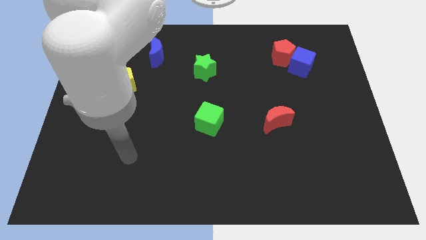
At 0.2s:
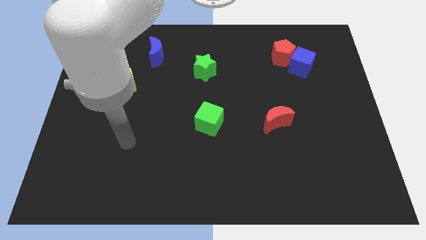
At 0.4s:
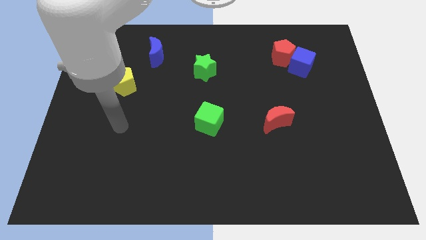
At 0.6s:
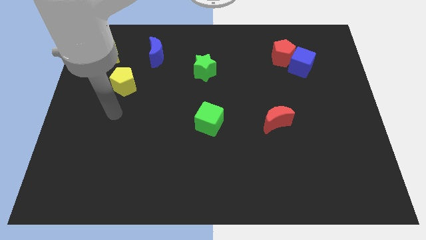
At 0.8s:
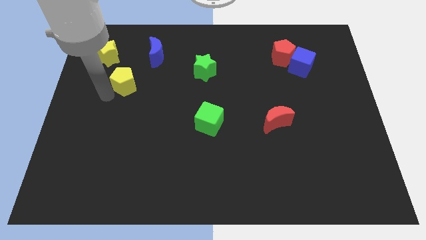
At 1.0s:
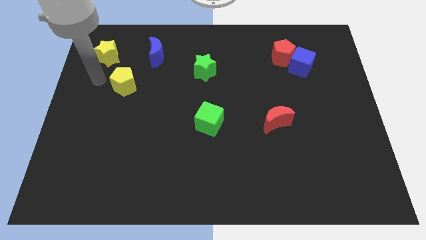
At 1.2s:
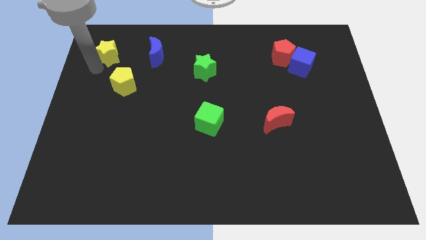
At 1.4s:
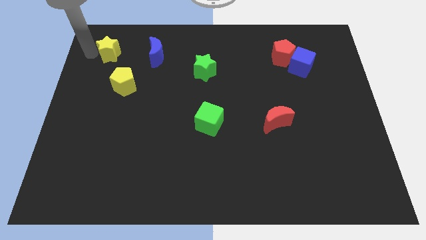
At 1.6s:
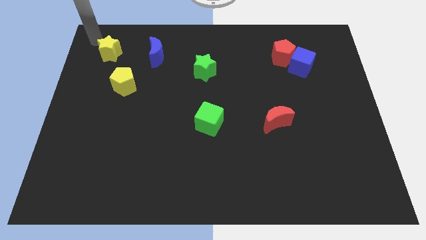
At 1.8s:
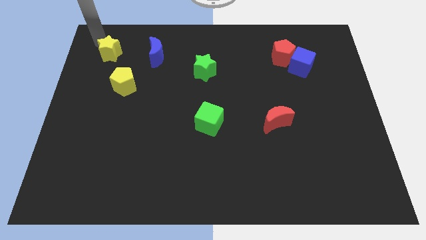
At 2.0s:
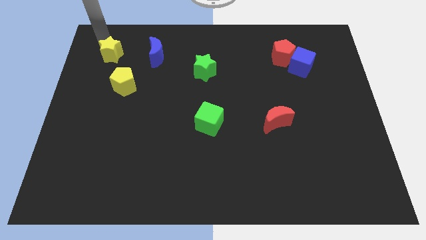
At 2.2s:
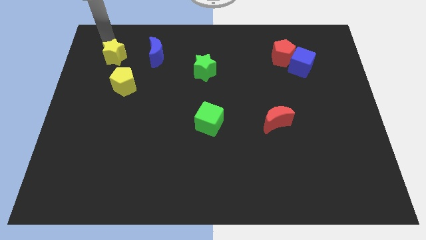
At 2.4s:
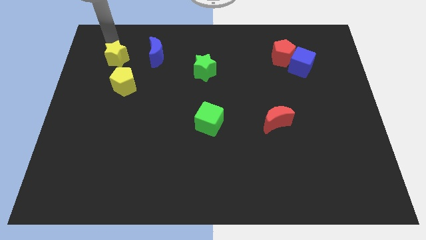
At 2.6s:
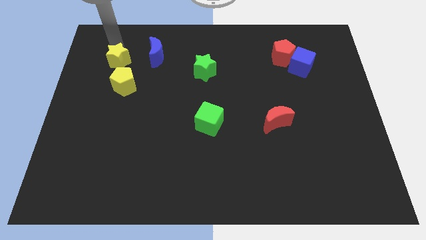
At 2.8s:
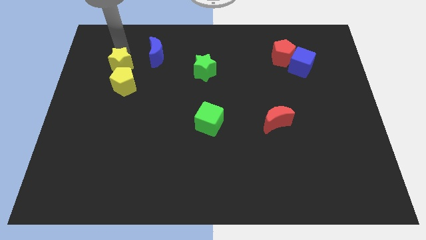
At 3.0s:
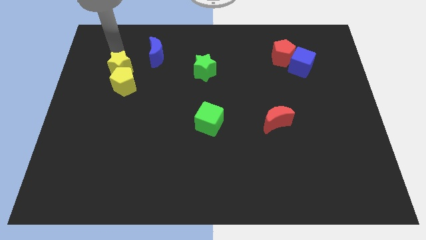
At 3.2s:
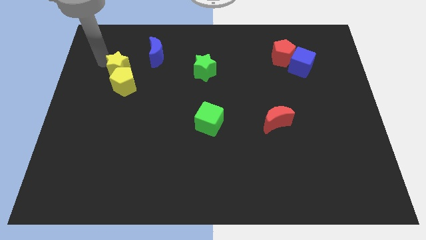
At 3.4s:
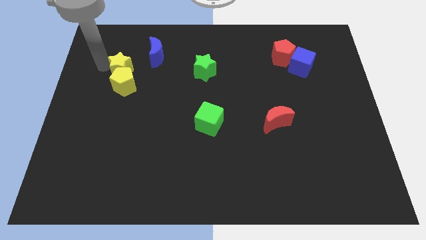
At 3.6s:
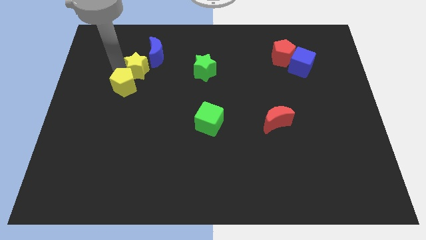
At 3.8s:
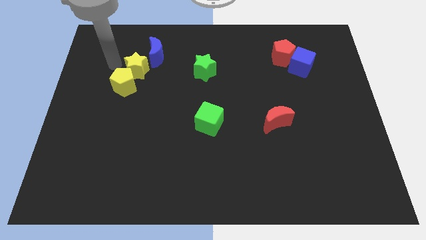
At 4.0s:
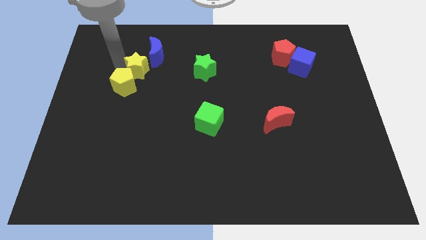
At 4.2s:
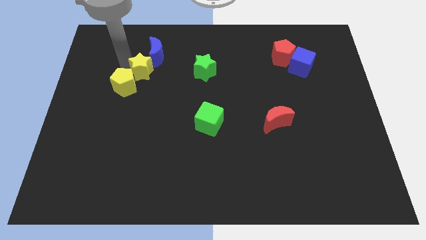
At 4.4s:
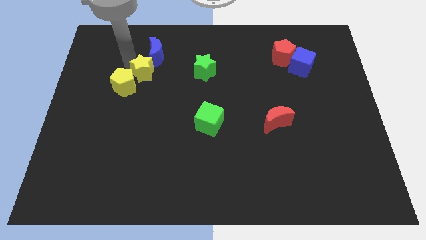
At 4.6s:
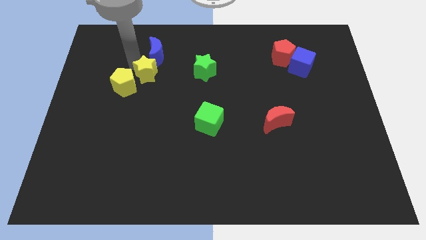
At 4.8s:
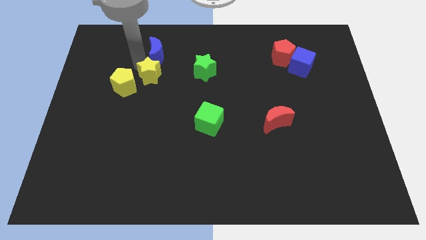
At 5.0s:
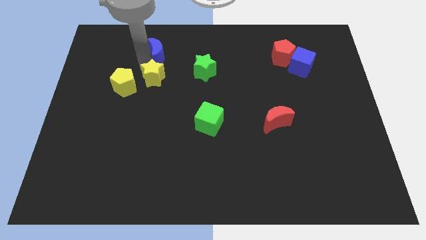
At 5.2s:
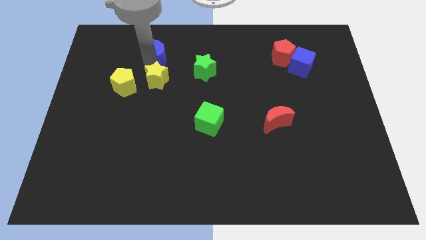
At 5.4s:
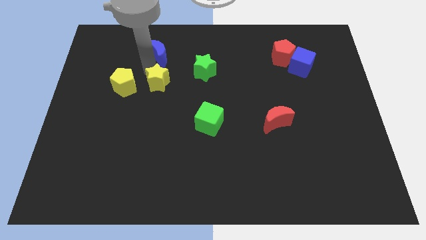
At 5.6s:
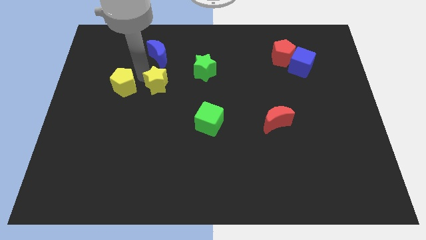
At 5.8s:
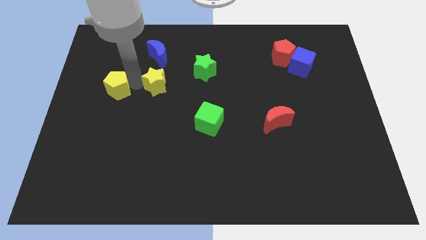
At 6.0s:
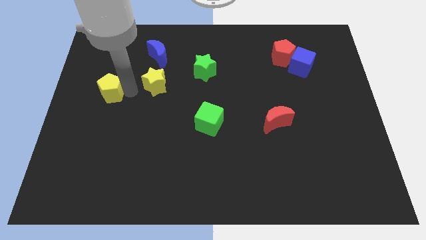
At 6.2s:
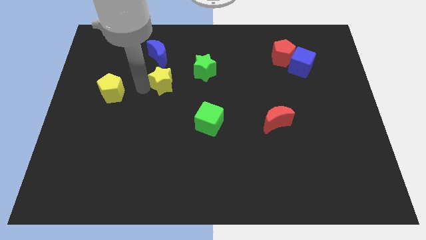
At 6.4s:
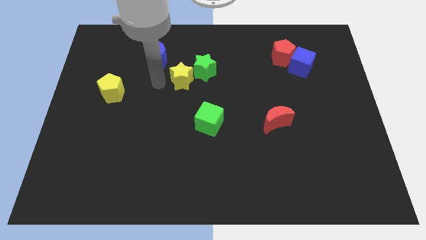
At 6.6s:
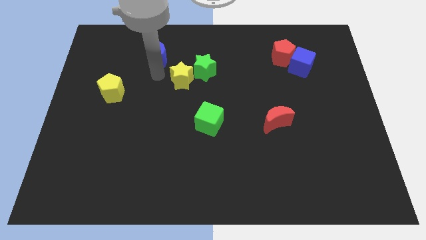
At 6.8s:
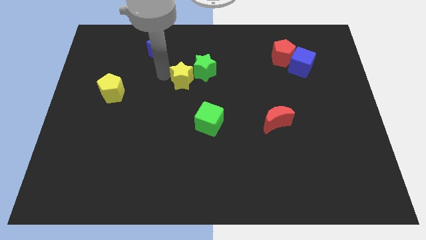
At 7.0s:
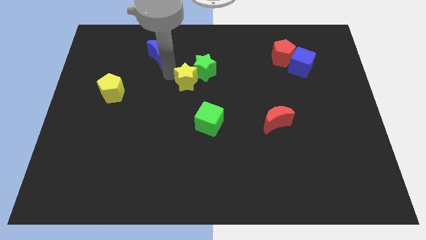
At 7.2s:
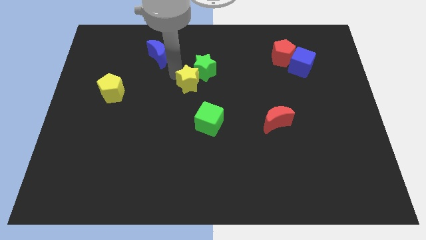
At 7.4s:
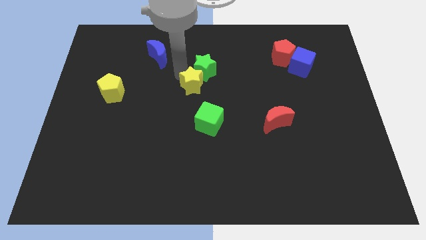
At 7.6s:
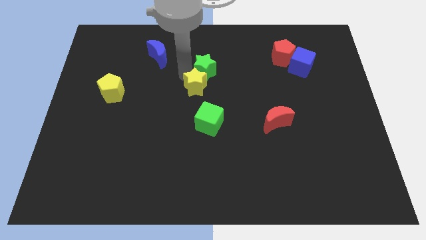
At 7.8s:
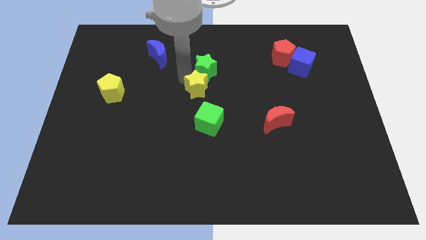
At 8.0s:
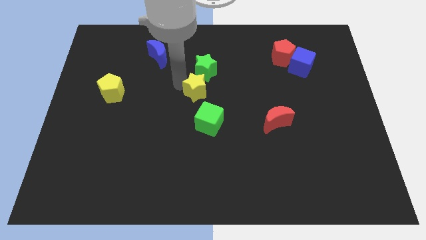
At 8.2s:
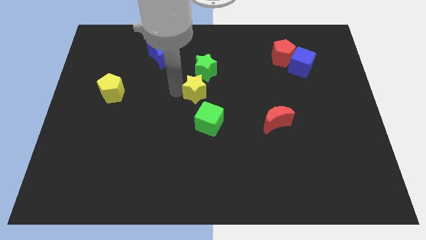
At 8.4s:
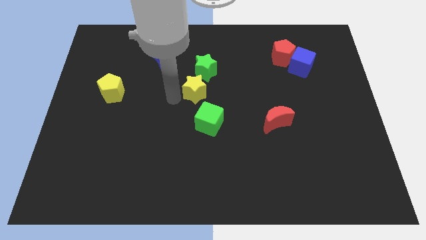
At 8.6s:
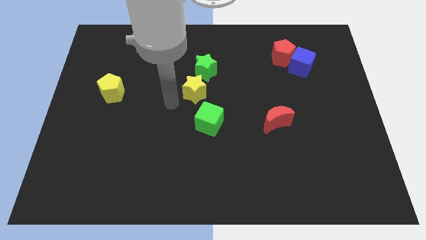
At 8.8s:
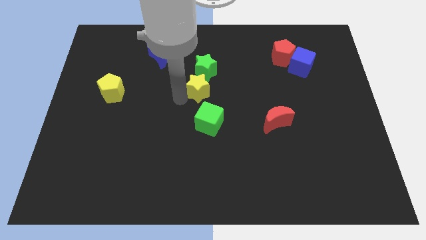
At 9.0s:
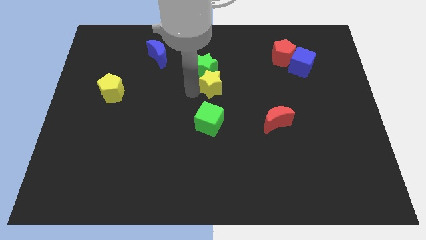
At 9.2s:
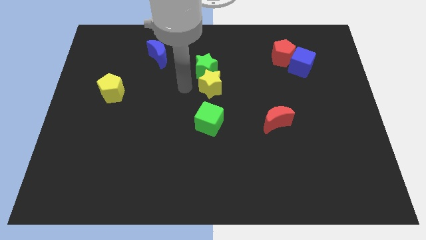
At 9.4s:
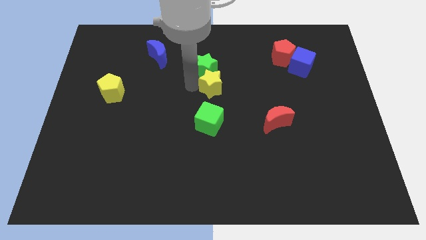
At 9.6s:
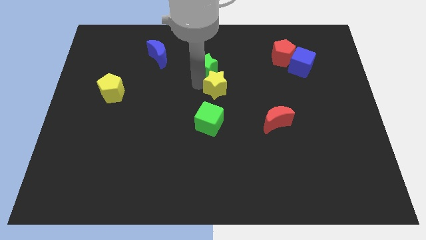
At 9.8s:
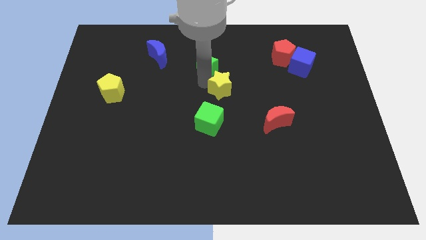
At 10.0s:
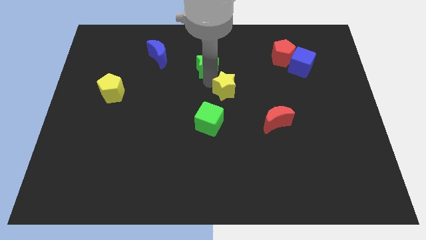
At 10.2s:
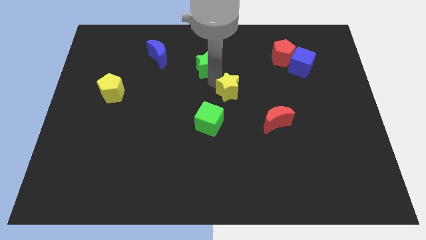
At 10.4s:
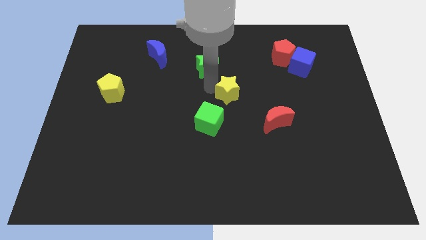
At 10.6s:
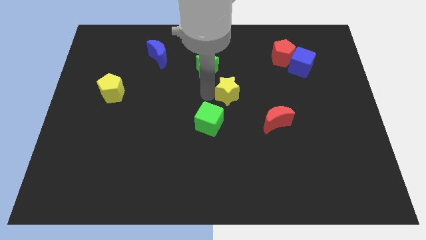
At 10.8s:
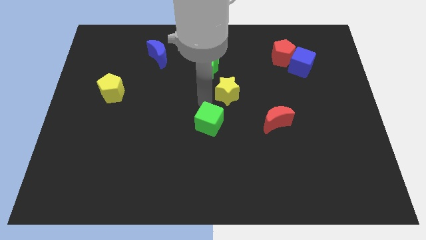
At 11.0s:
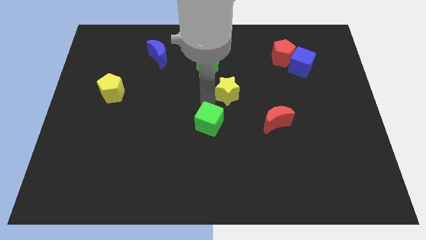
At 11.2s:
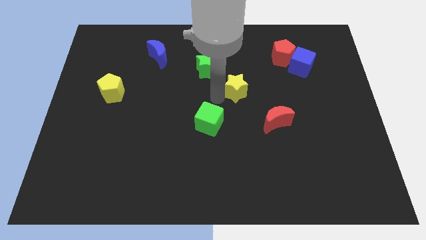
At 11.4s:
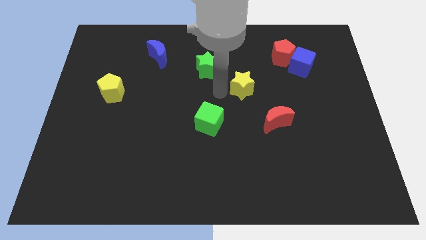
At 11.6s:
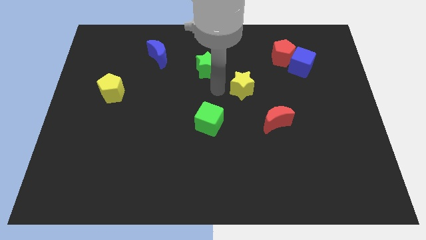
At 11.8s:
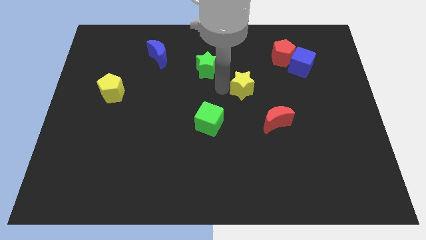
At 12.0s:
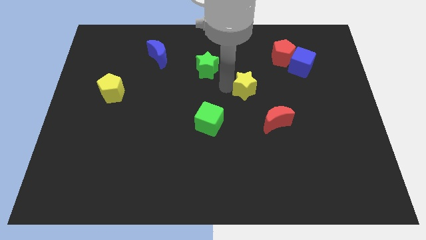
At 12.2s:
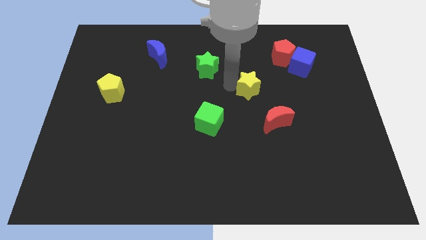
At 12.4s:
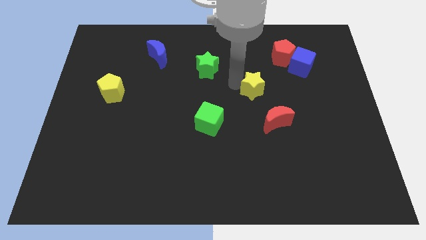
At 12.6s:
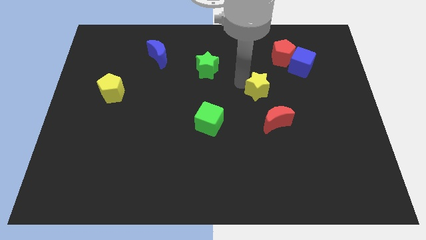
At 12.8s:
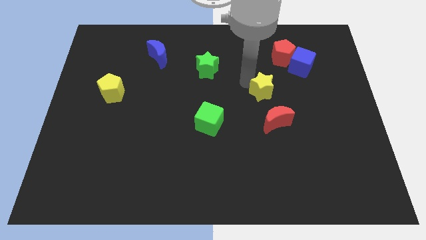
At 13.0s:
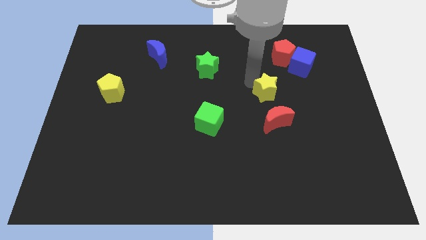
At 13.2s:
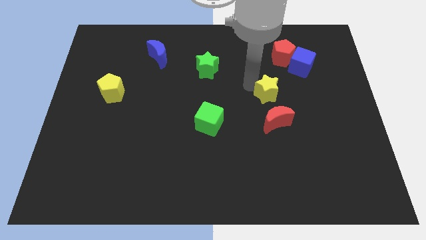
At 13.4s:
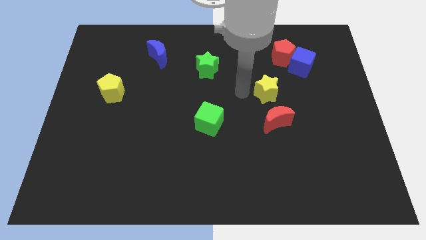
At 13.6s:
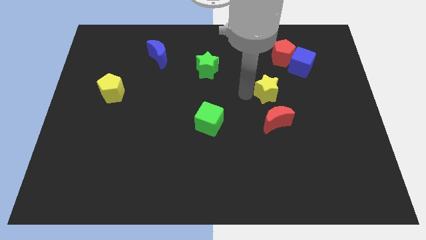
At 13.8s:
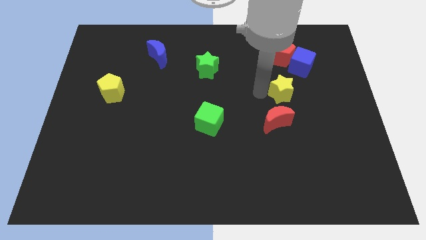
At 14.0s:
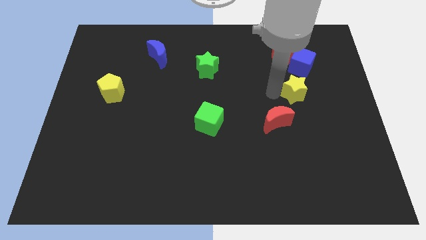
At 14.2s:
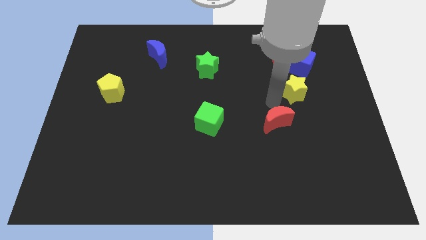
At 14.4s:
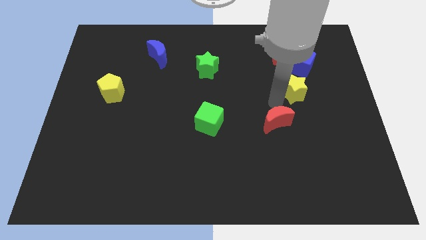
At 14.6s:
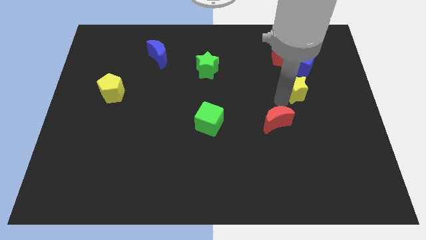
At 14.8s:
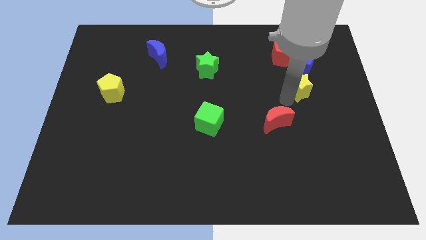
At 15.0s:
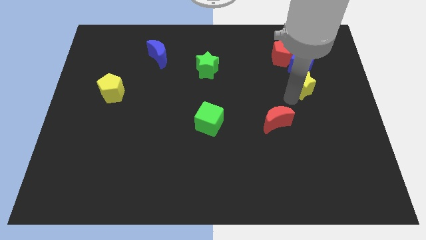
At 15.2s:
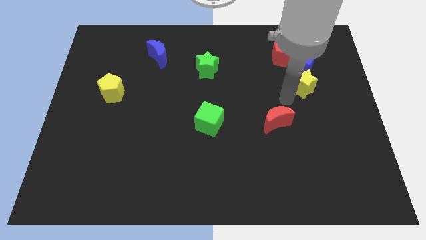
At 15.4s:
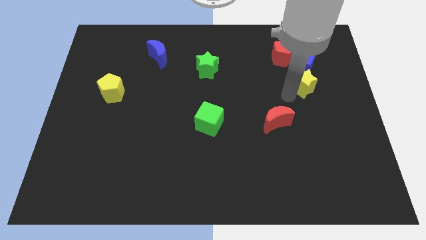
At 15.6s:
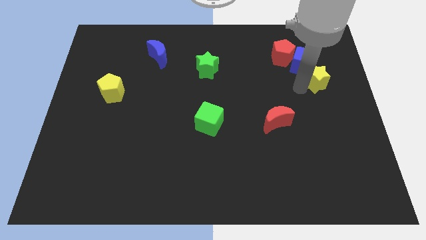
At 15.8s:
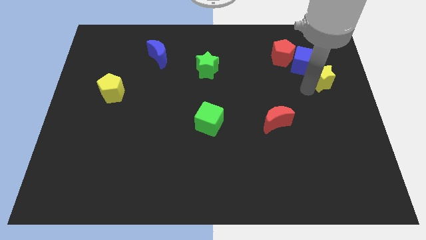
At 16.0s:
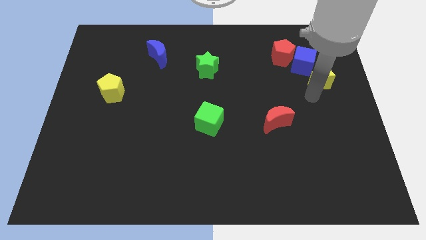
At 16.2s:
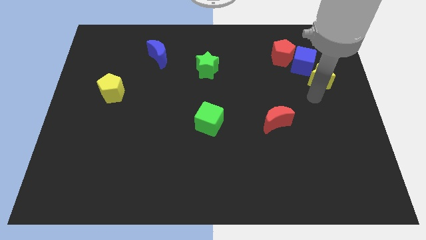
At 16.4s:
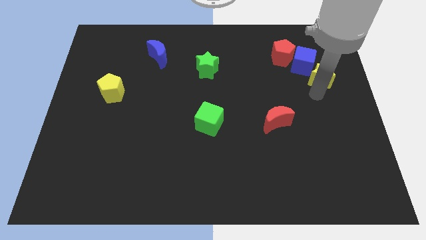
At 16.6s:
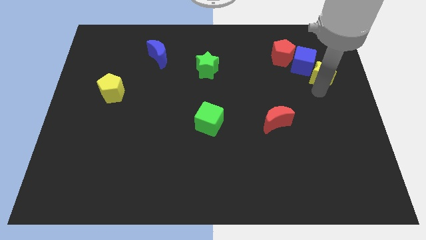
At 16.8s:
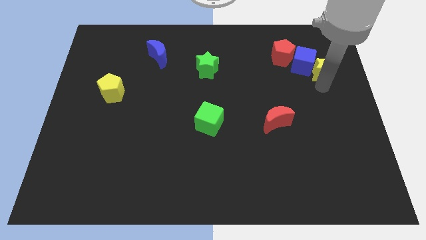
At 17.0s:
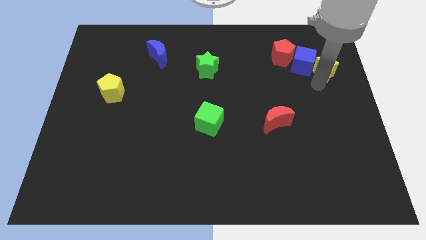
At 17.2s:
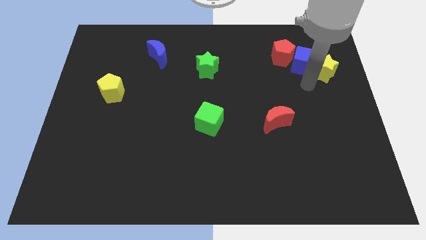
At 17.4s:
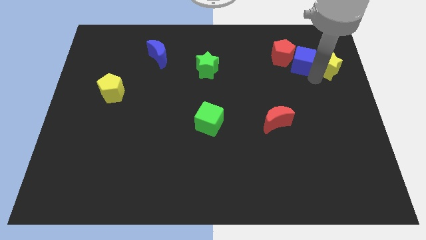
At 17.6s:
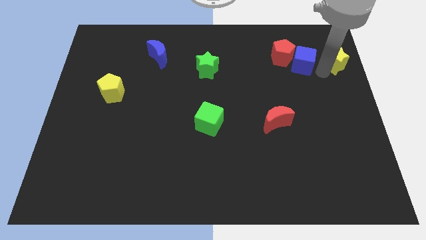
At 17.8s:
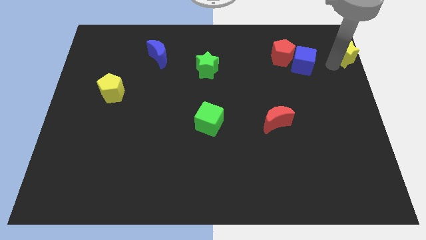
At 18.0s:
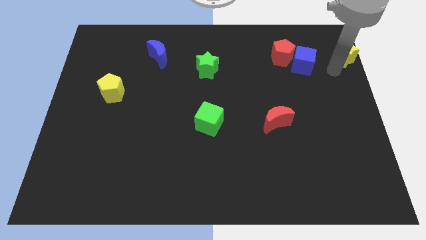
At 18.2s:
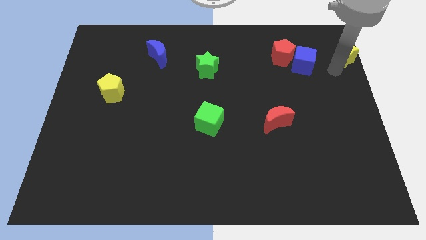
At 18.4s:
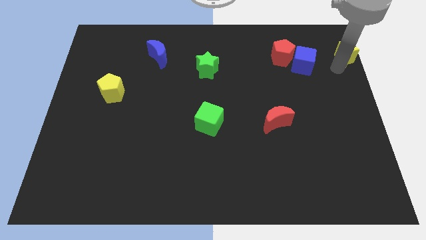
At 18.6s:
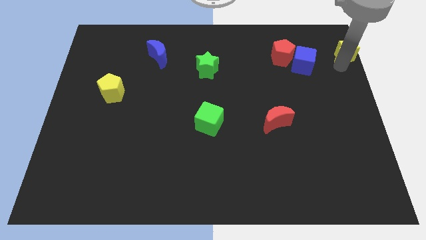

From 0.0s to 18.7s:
move the yellow star to the top right of the board
